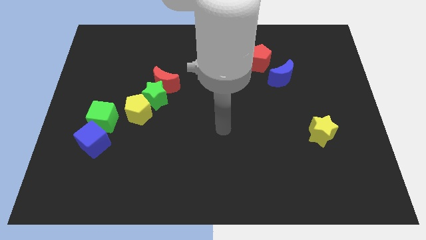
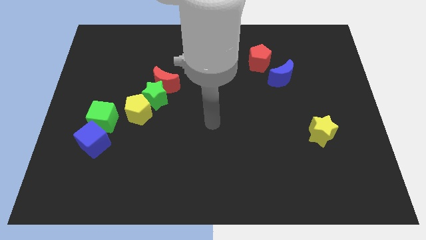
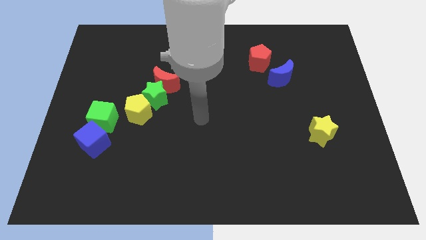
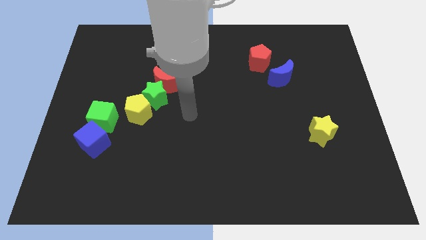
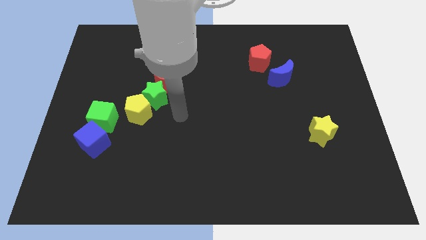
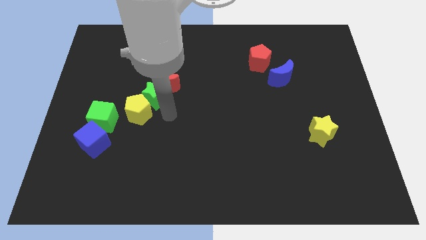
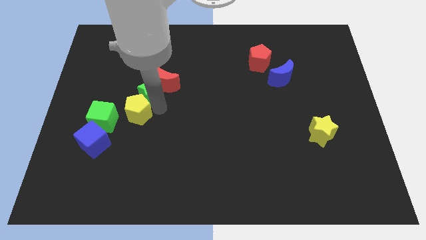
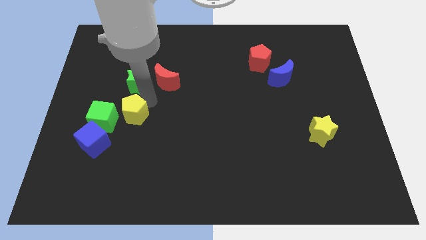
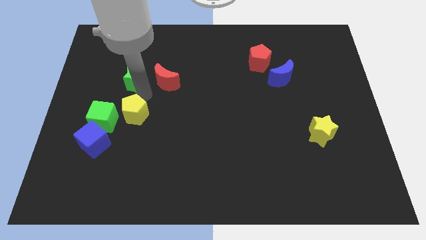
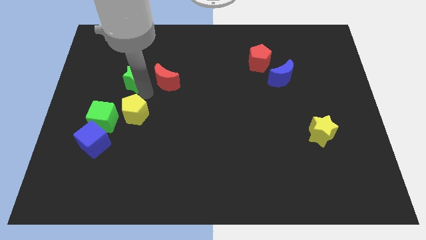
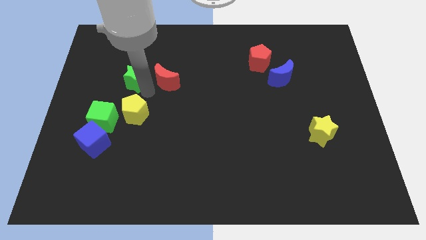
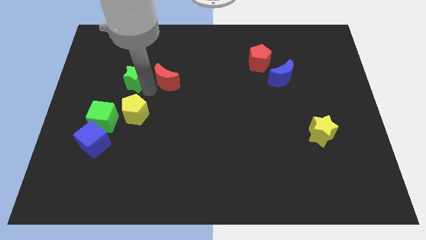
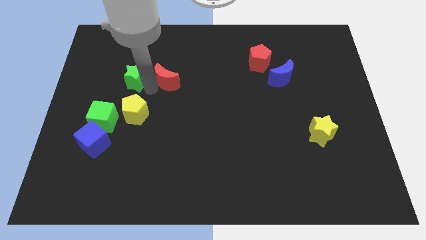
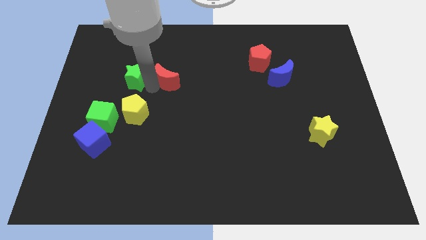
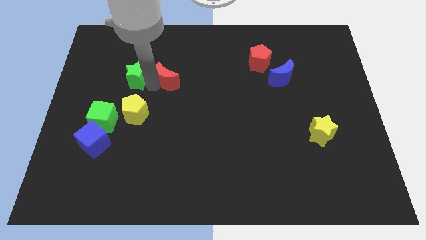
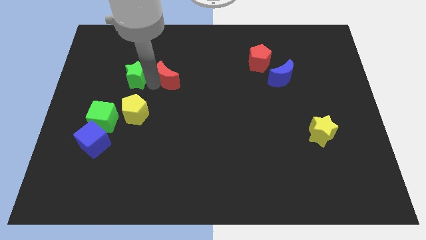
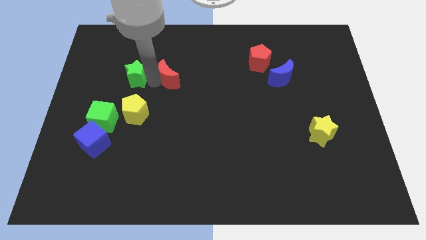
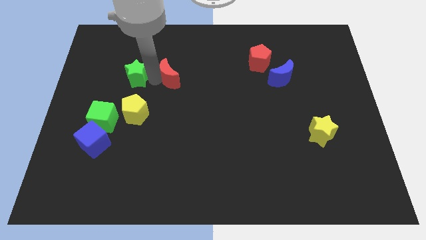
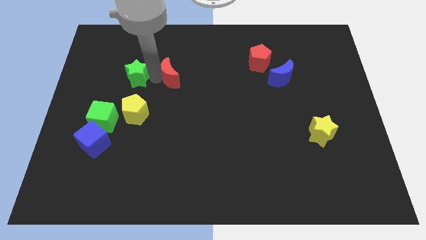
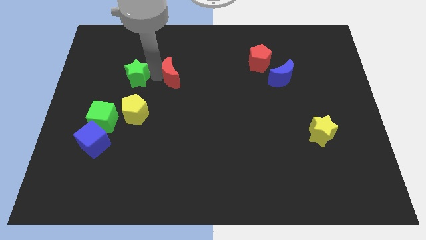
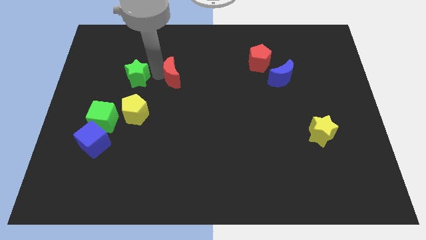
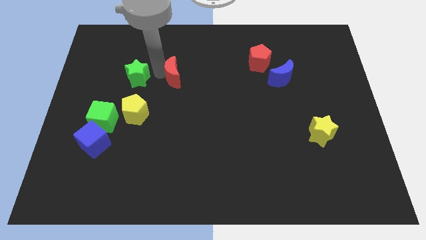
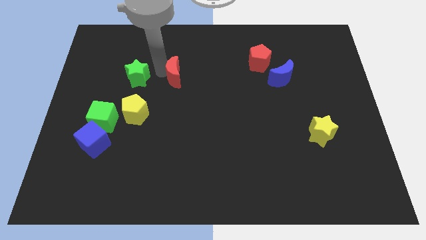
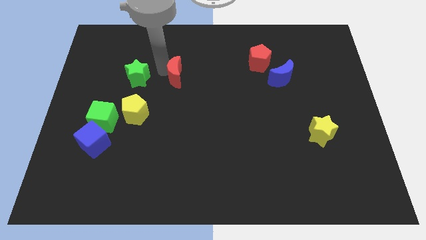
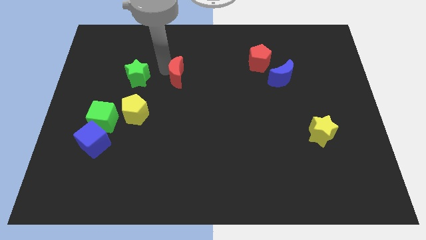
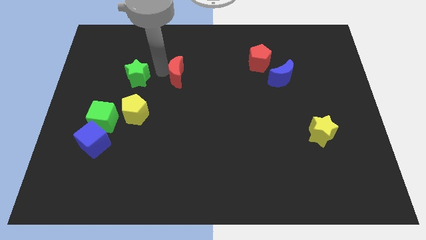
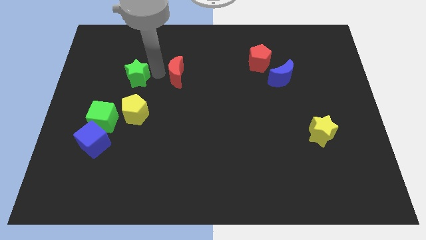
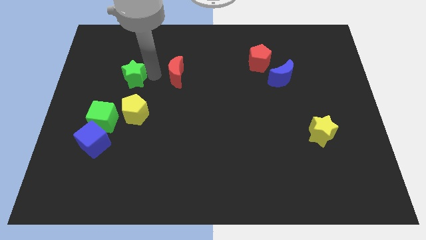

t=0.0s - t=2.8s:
pull the red moon apart from the green star

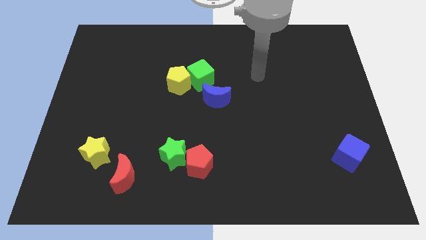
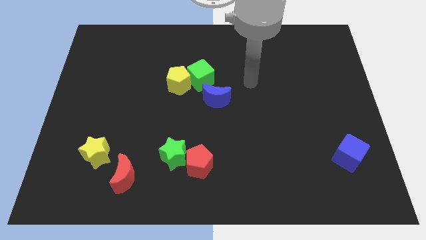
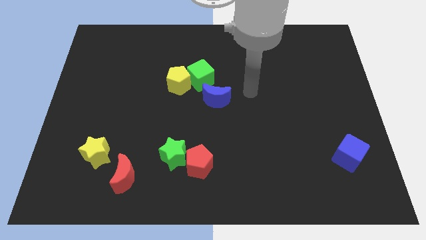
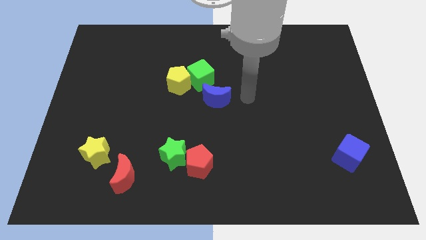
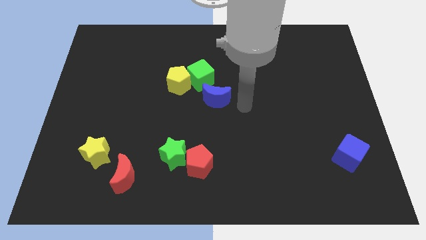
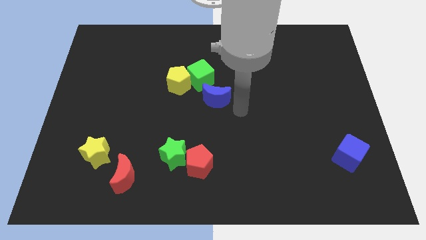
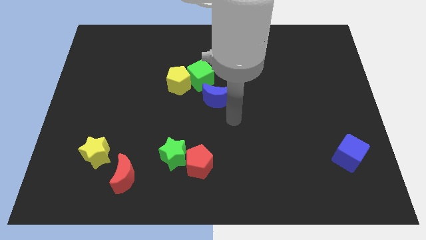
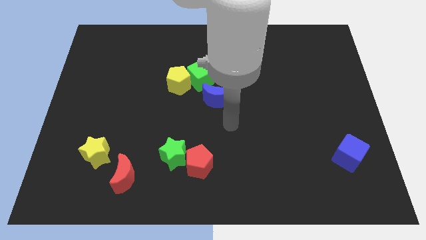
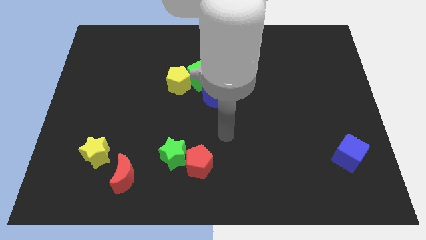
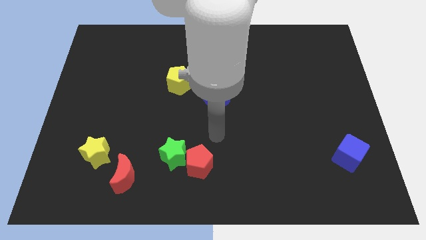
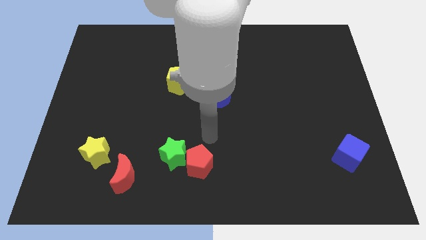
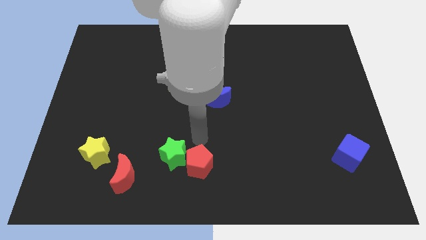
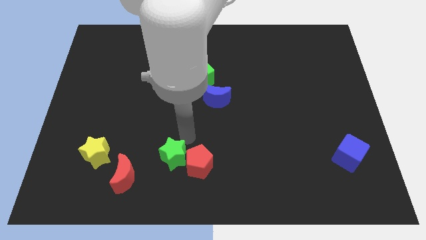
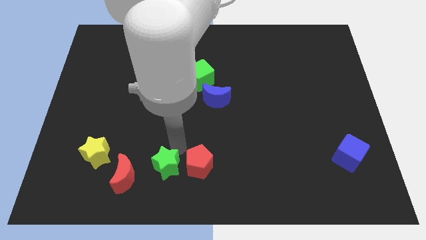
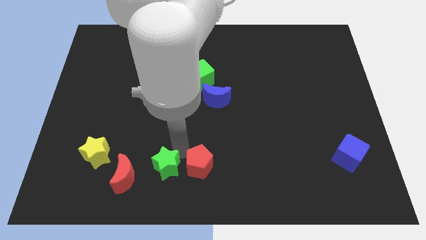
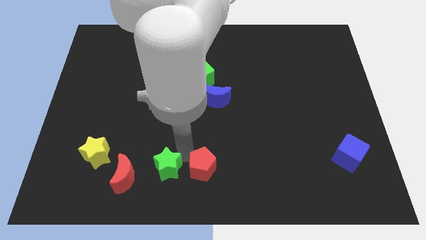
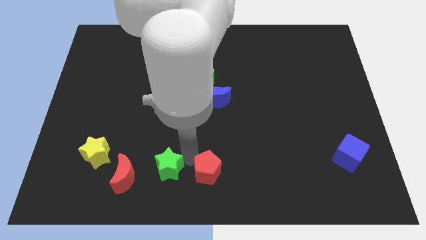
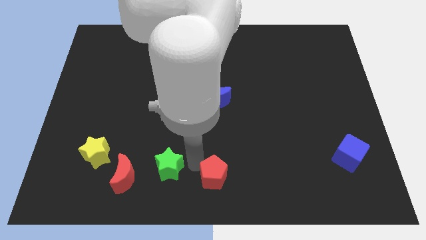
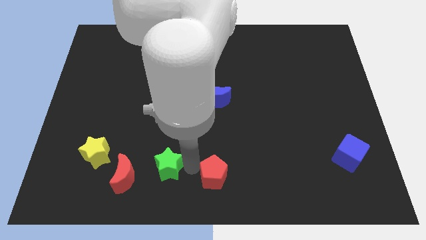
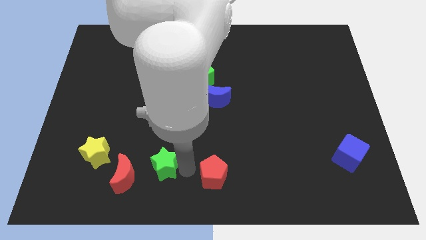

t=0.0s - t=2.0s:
pull the red pentagon apart from the green star

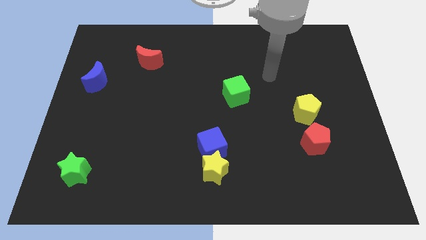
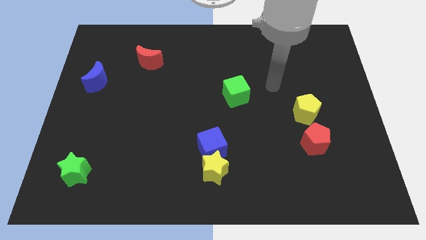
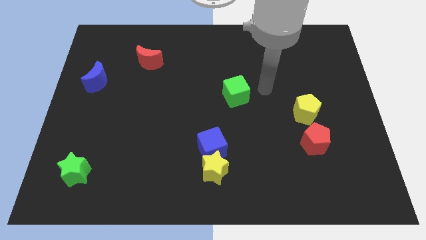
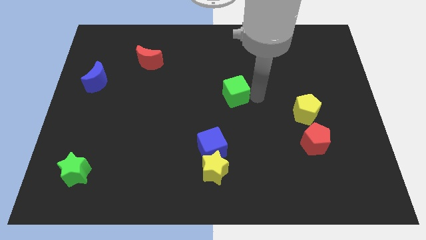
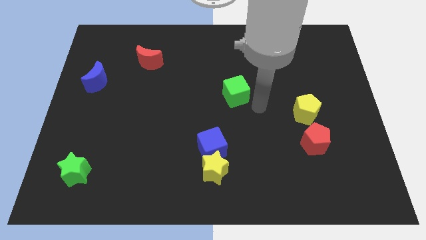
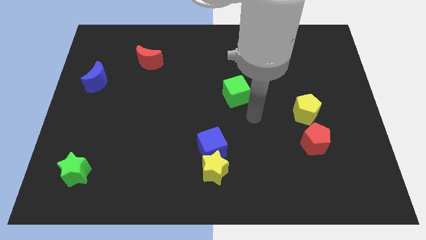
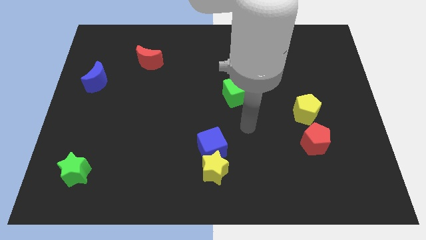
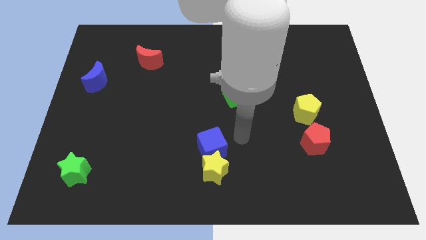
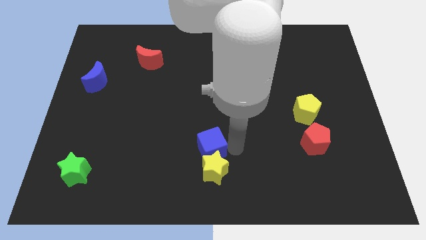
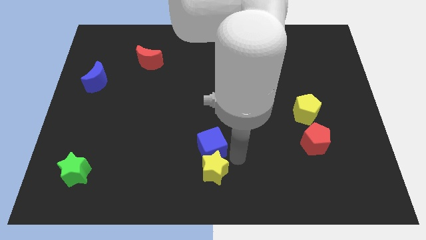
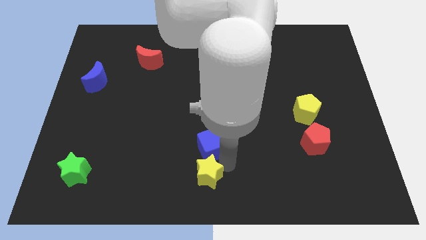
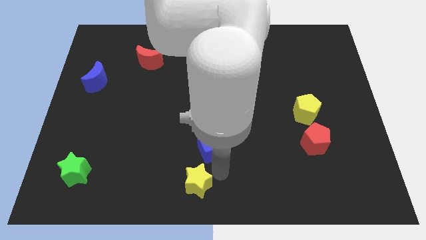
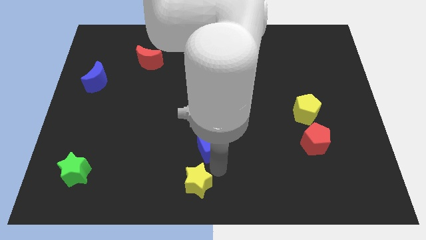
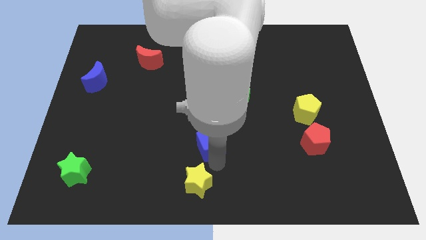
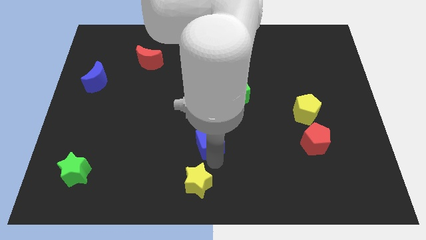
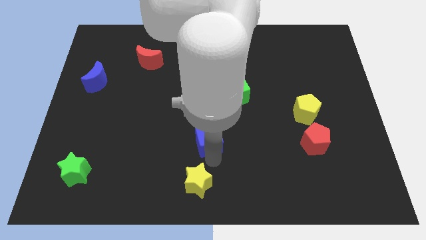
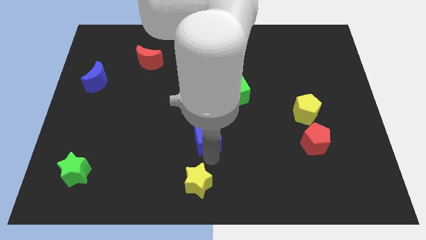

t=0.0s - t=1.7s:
move the blue cube away from the yellow star

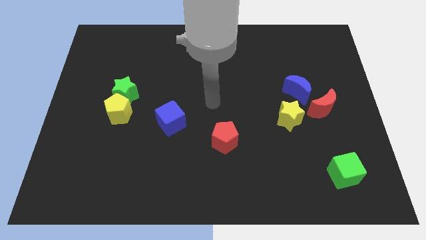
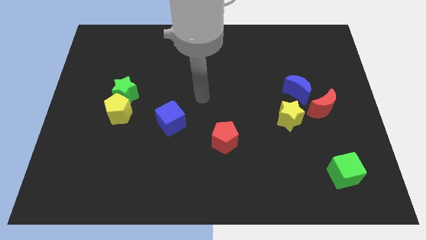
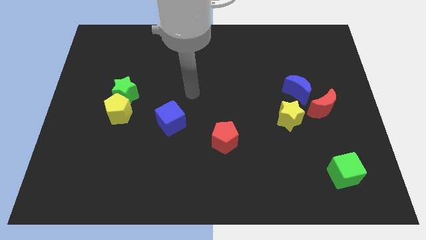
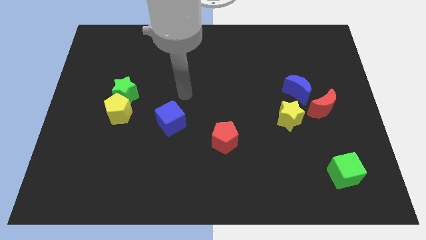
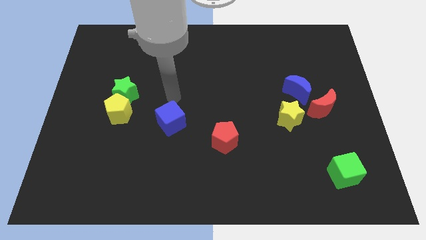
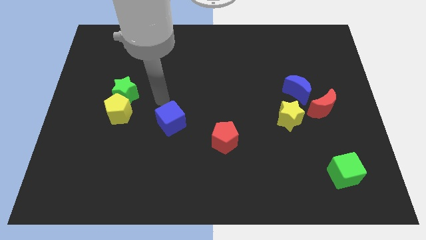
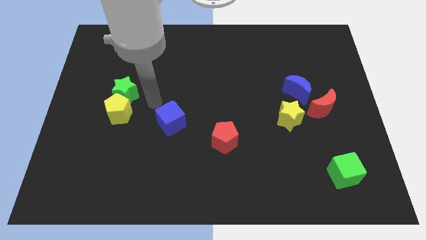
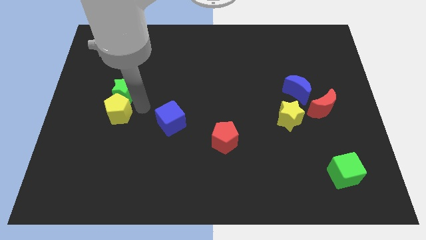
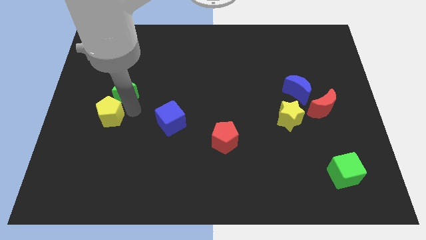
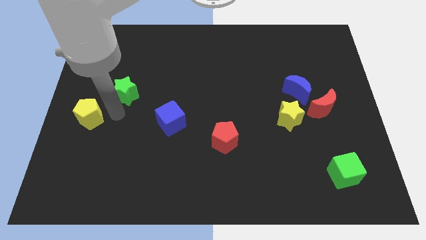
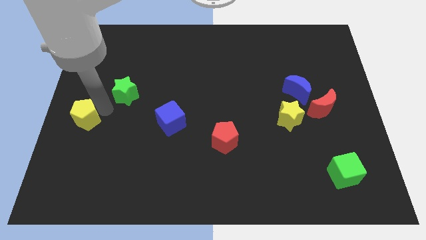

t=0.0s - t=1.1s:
separate the green star from the yellow pentagon

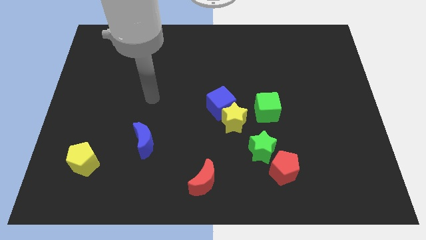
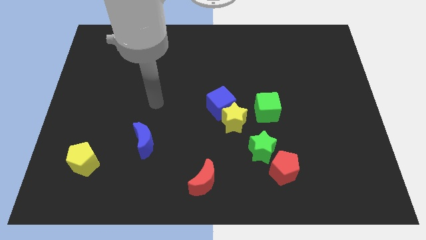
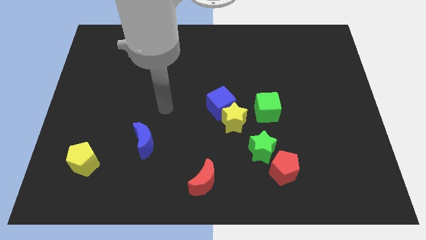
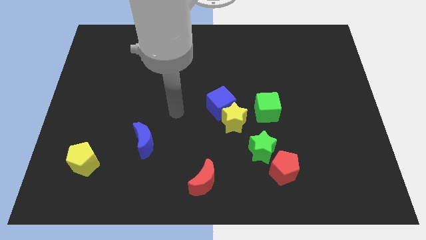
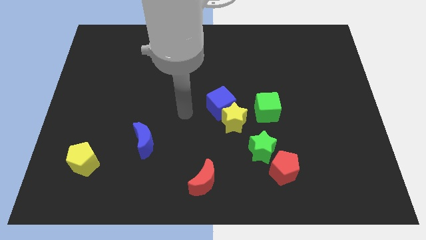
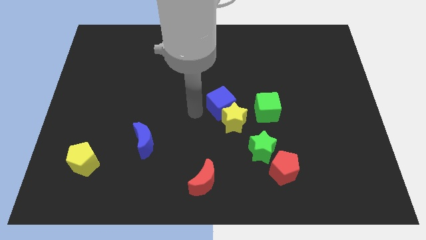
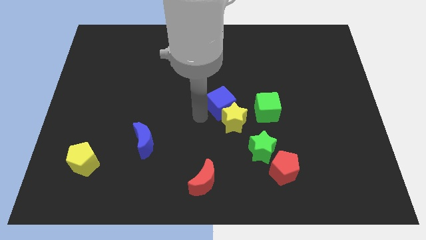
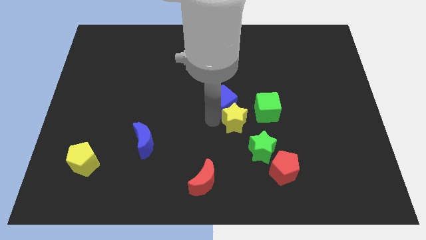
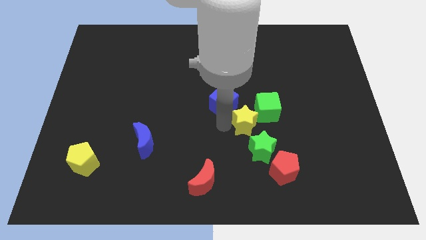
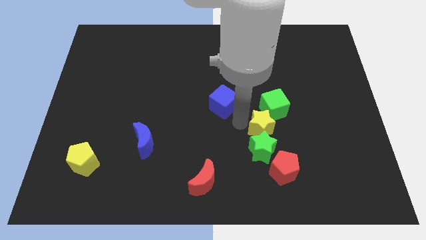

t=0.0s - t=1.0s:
pull the blue cube apart from the yellow star

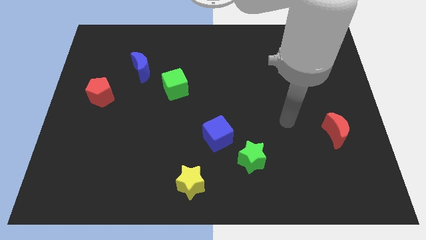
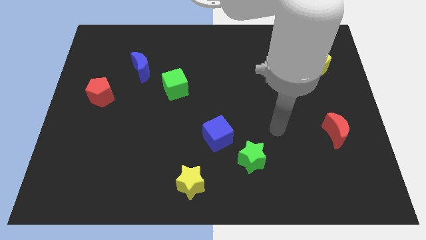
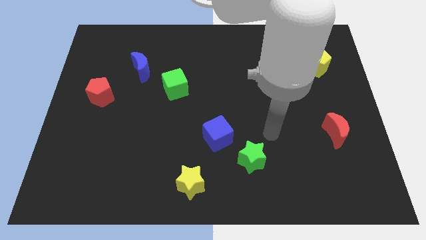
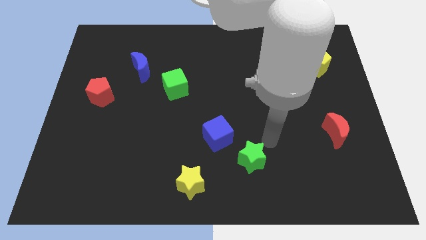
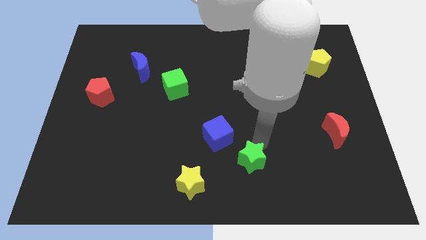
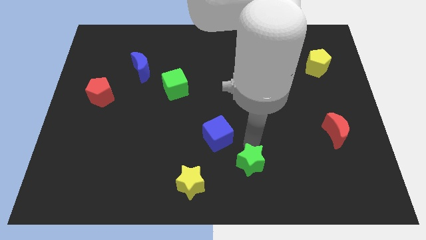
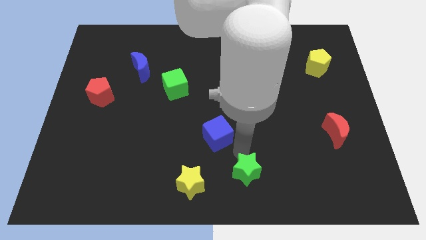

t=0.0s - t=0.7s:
pull the blue cube apart from the green star
